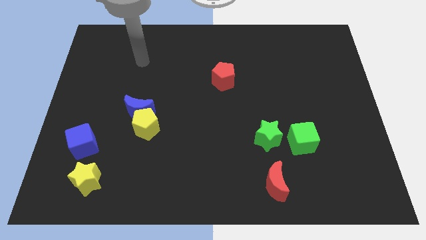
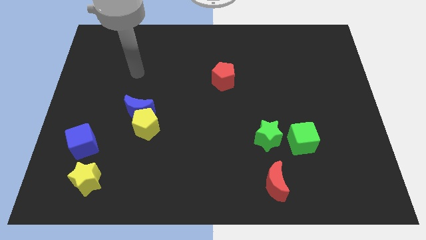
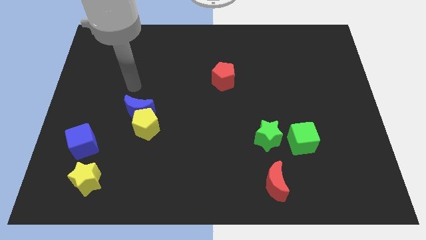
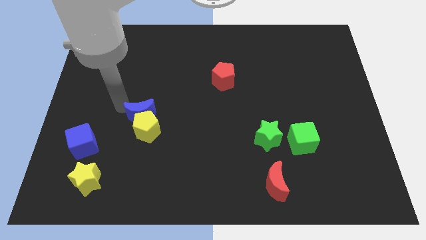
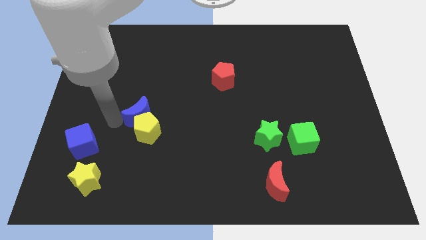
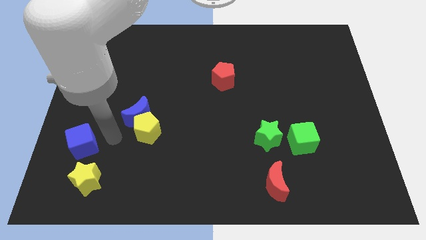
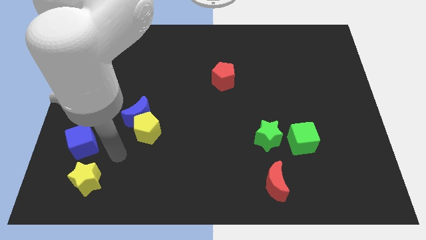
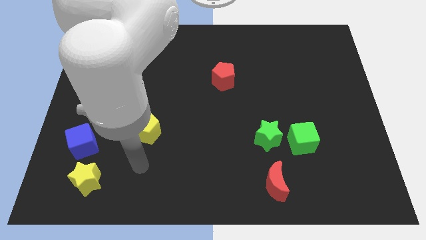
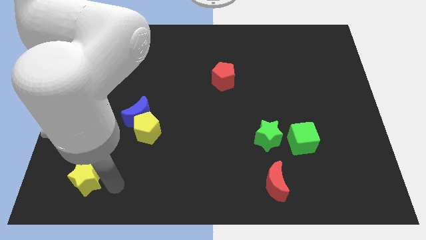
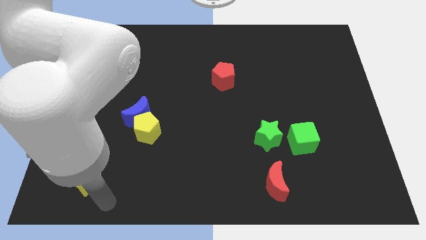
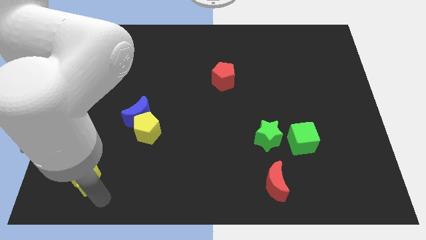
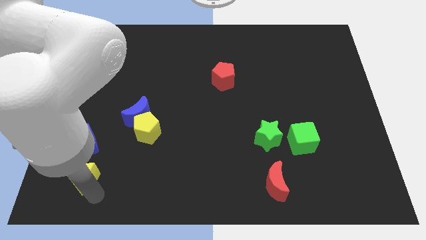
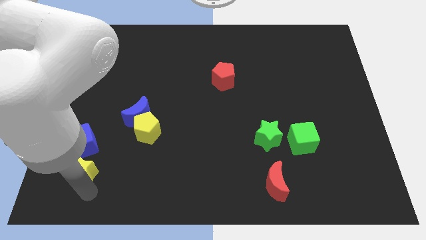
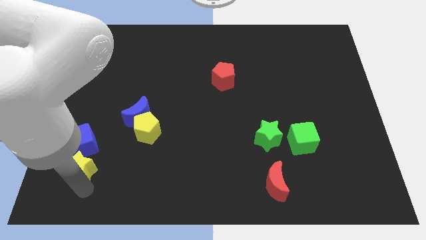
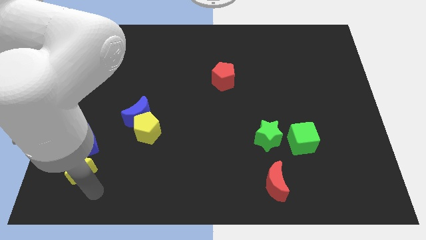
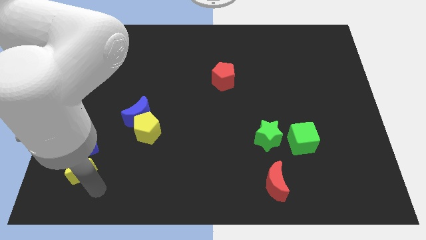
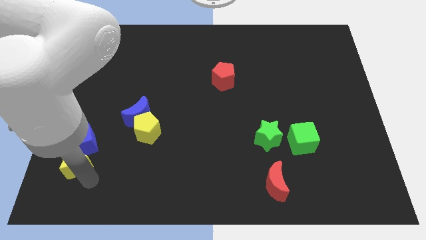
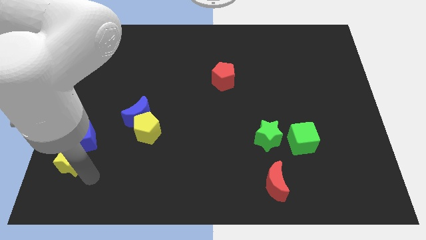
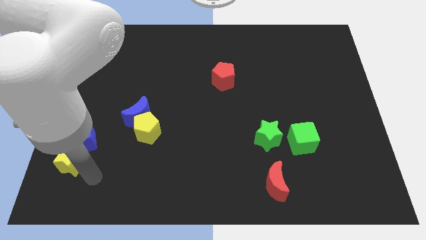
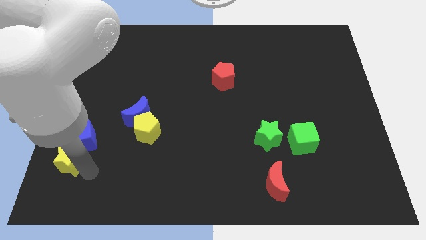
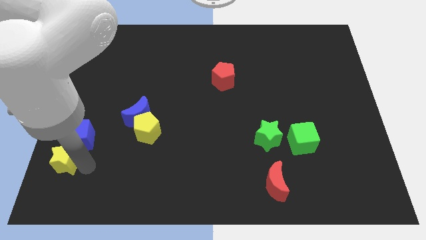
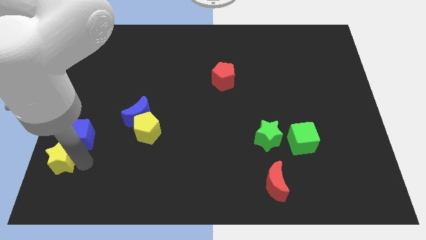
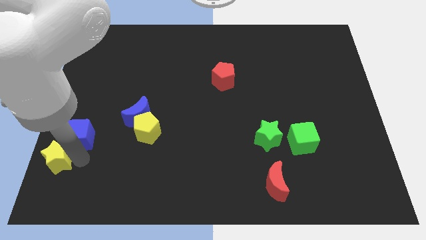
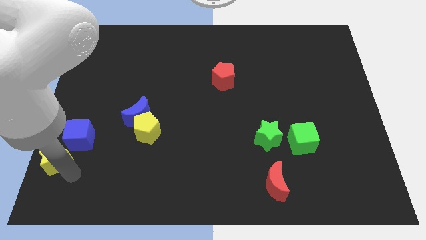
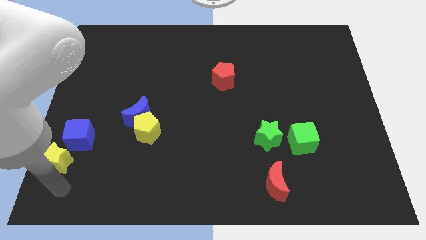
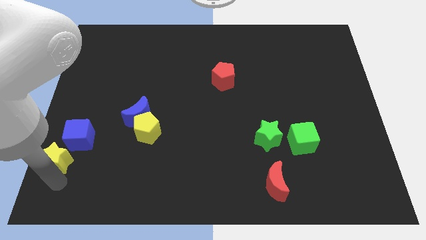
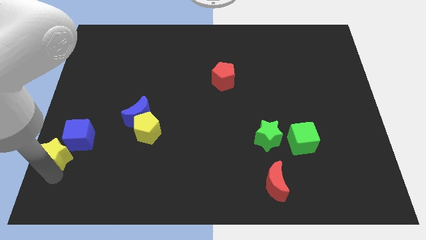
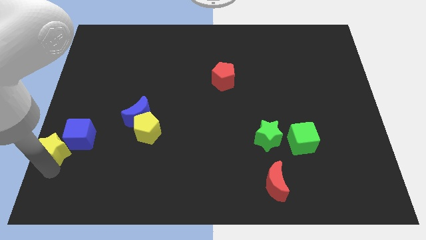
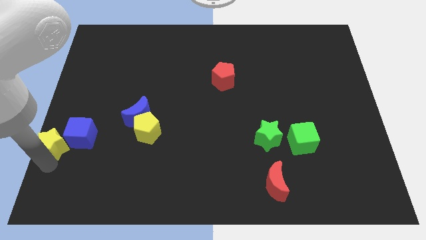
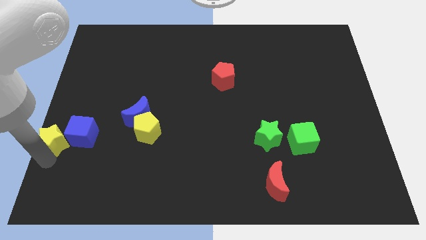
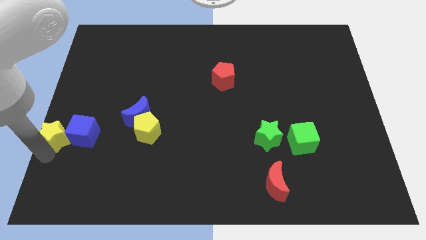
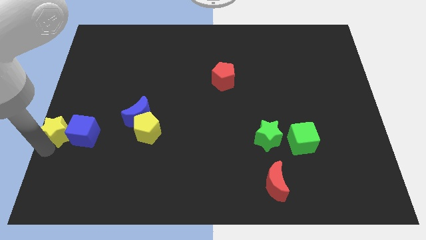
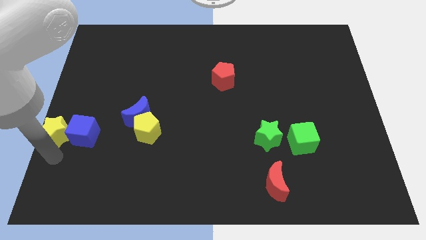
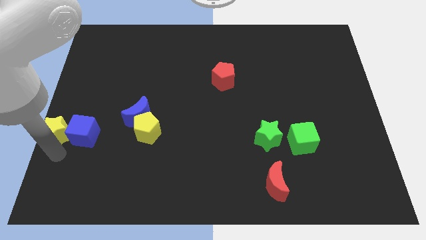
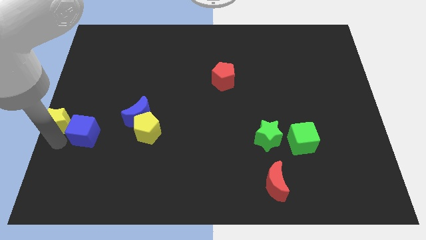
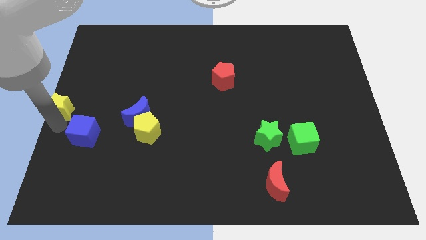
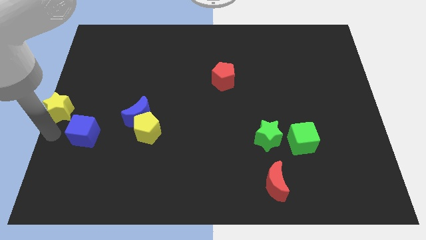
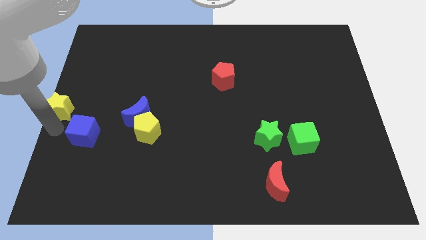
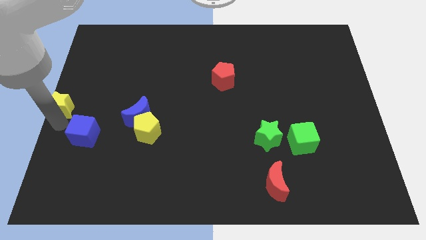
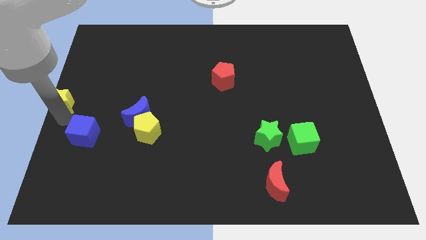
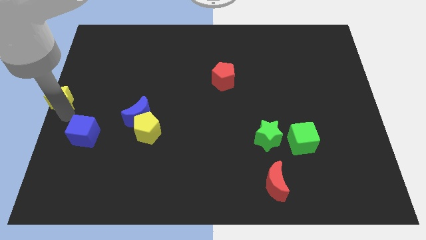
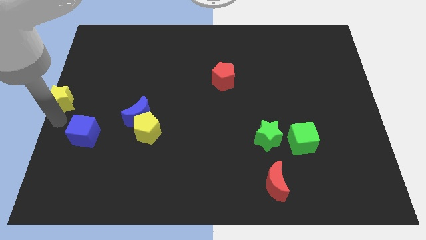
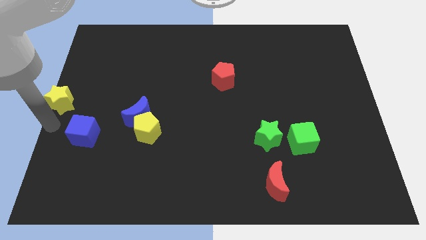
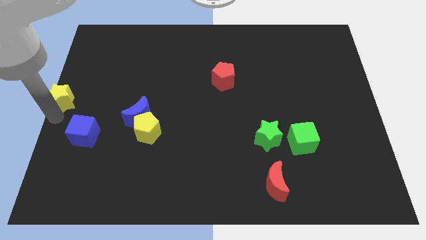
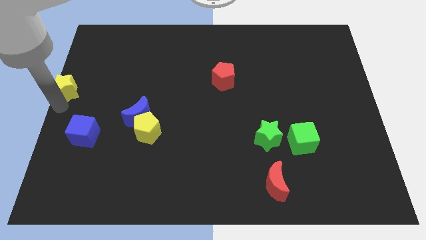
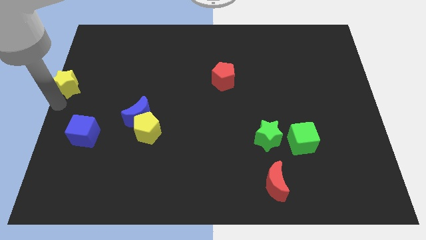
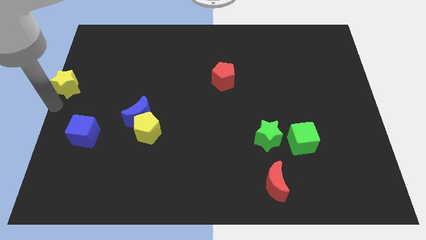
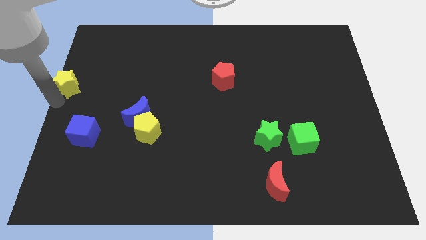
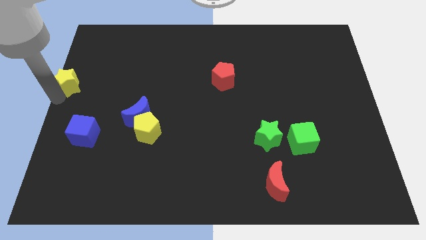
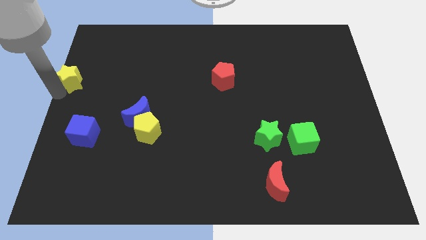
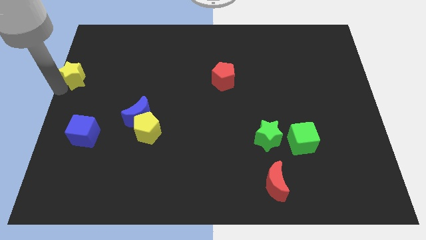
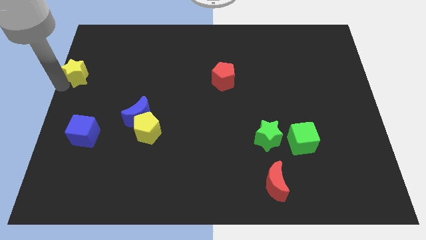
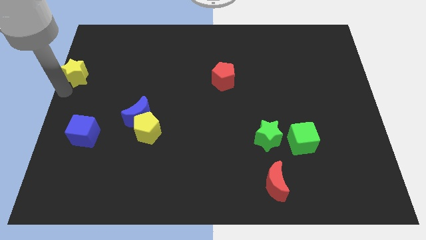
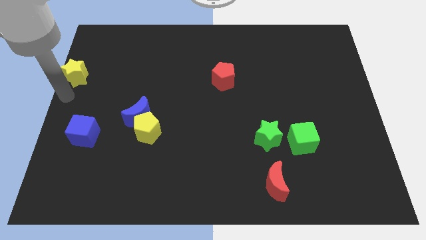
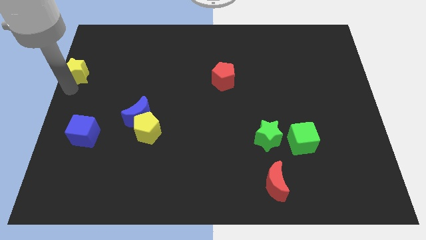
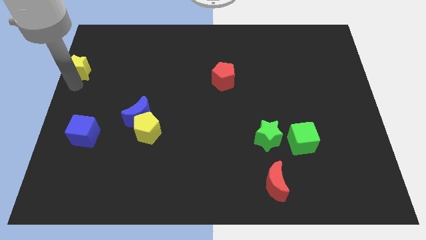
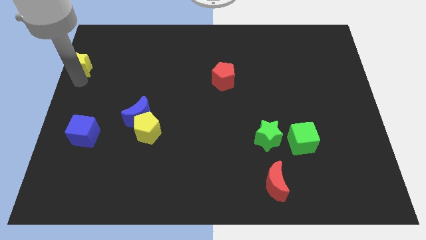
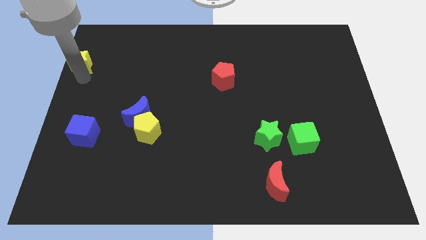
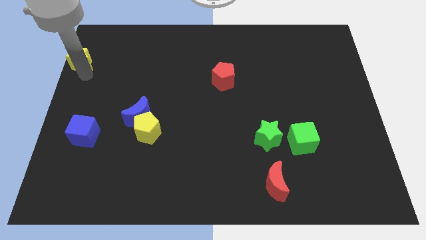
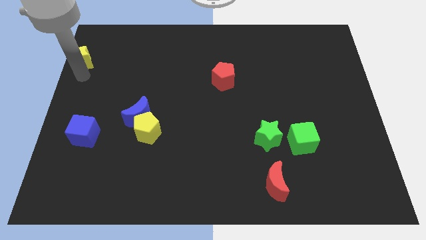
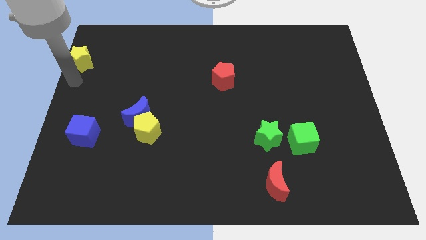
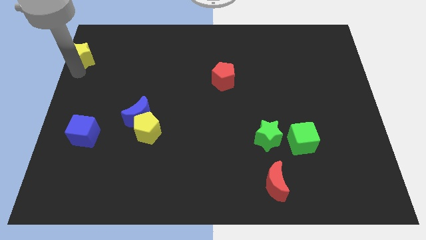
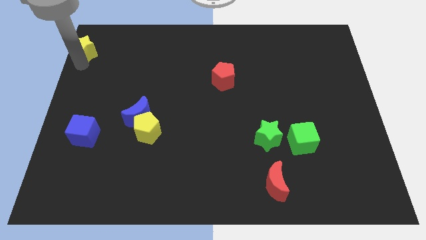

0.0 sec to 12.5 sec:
slide the yellow star to the top left of the board

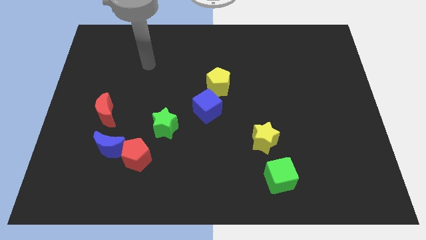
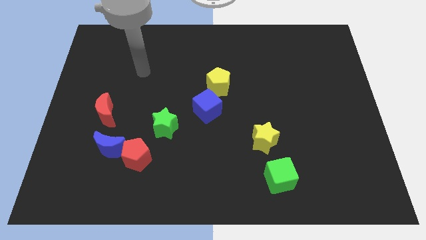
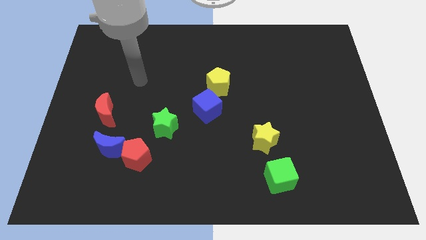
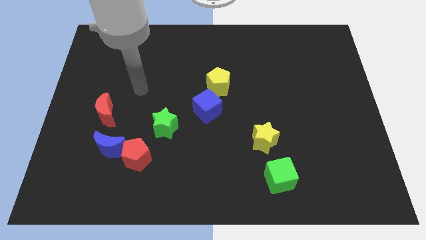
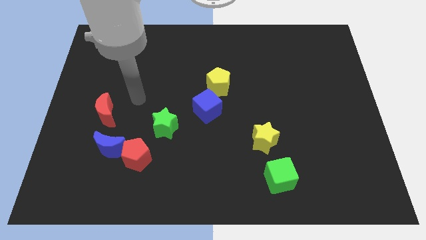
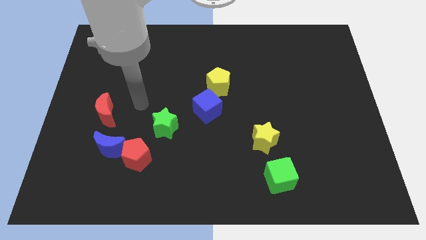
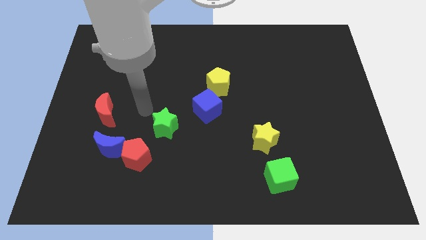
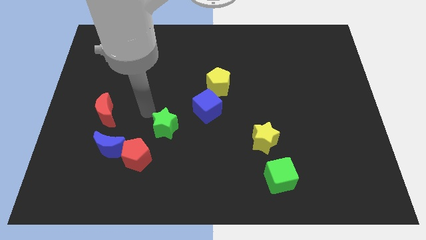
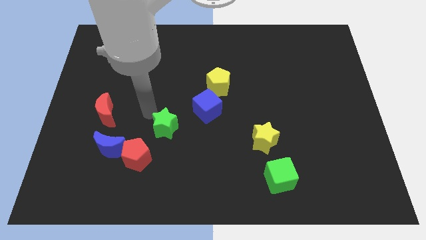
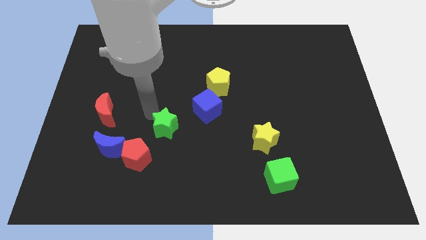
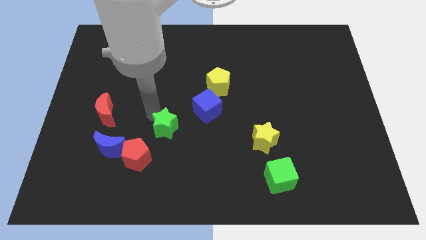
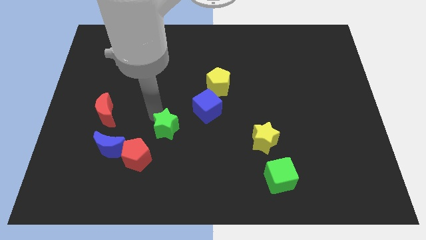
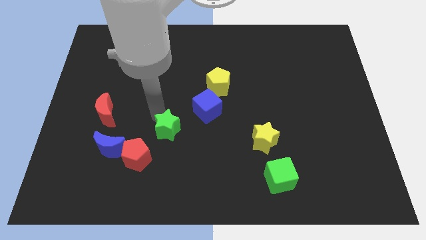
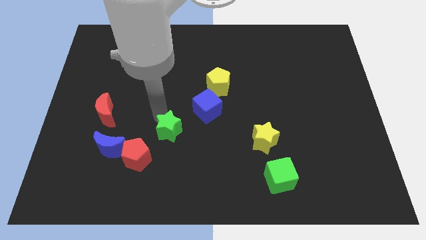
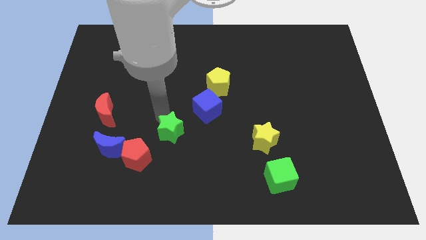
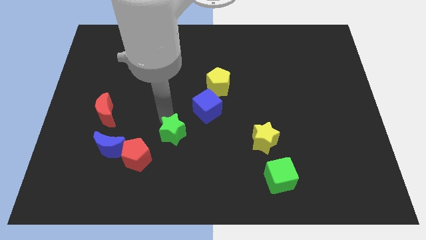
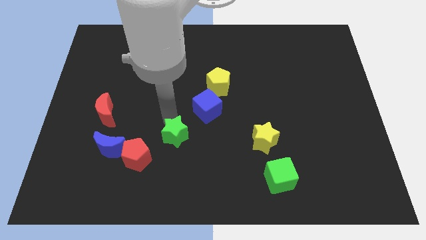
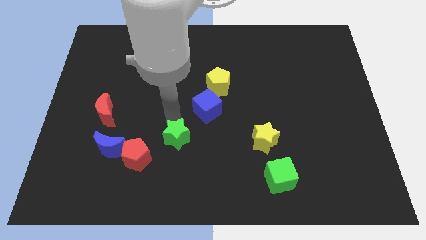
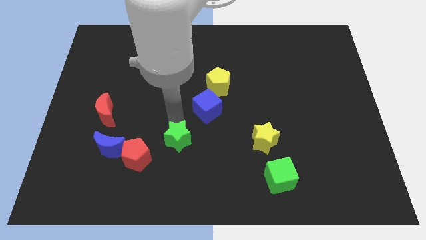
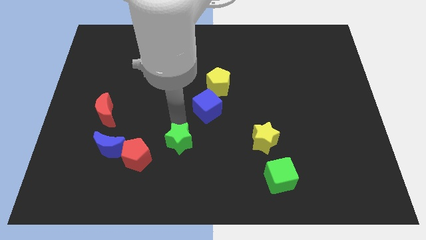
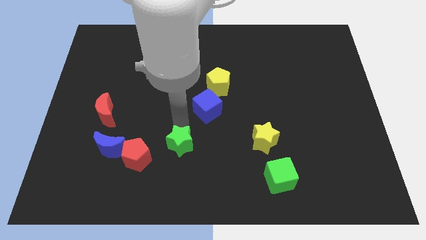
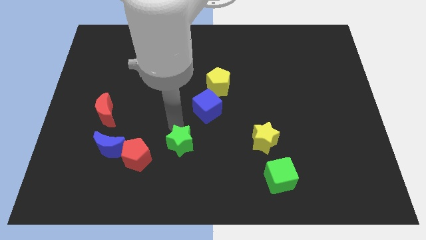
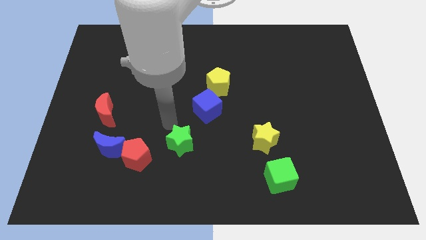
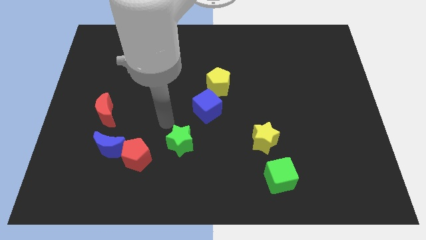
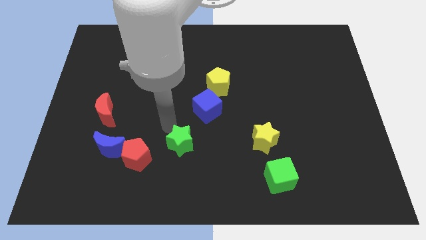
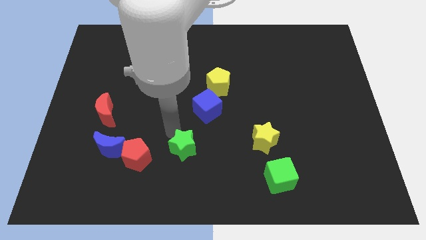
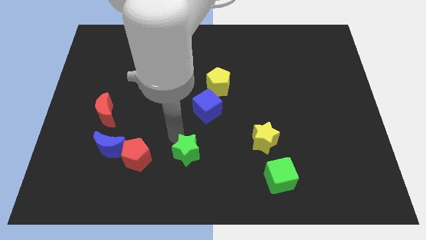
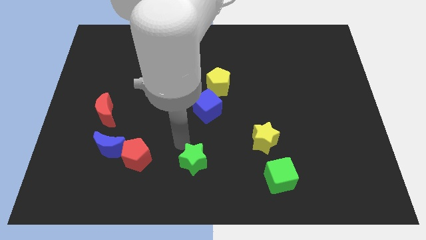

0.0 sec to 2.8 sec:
push the green star to the bottom
